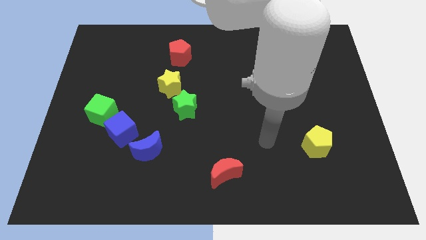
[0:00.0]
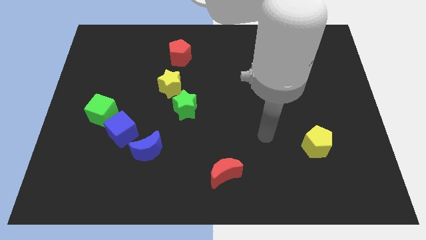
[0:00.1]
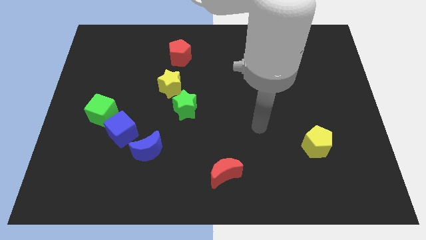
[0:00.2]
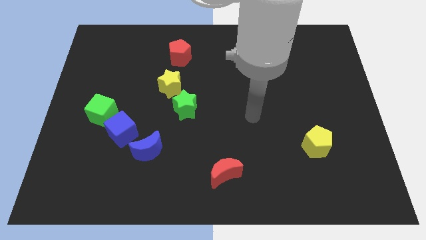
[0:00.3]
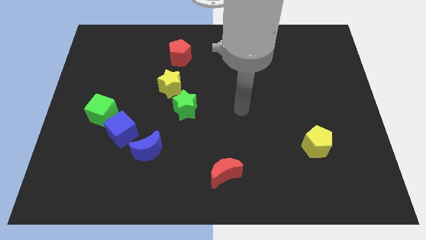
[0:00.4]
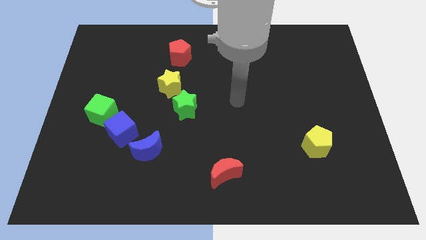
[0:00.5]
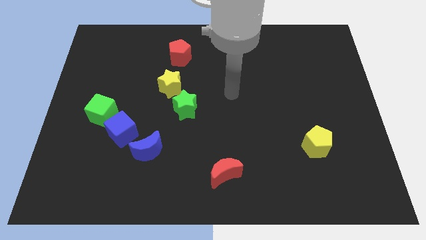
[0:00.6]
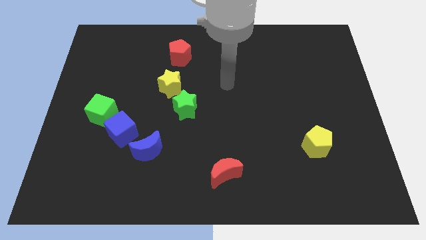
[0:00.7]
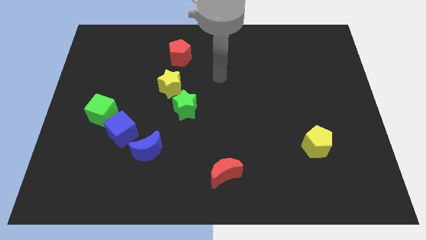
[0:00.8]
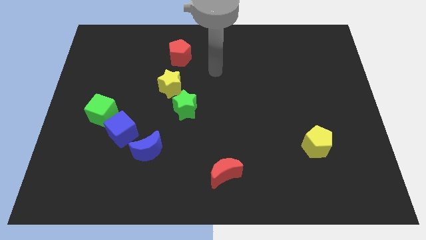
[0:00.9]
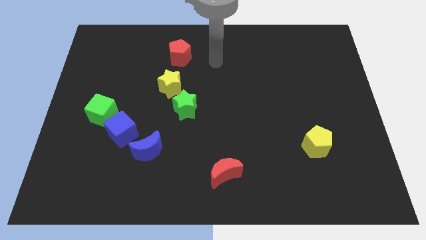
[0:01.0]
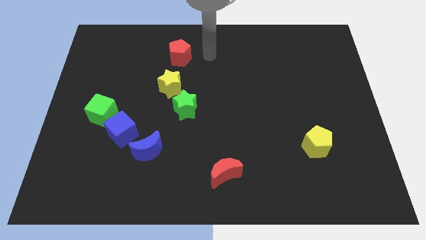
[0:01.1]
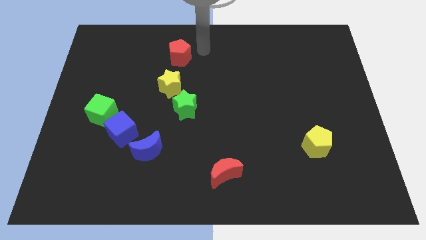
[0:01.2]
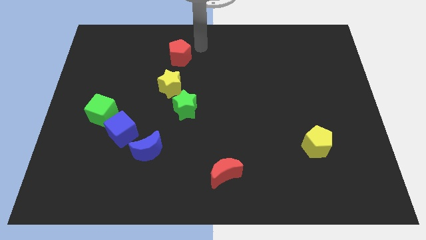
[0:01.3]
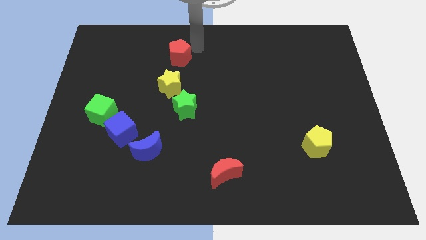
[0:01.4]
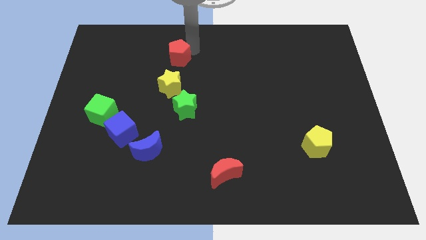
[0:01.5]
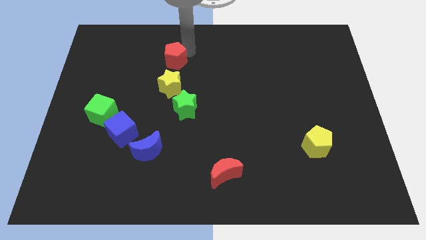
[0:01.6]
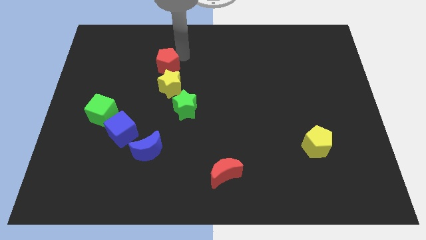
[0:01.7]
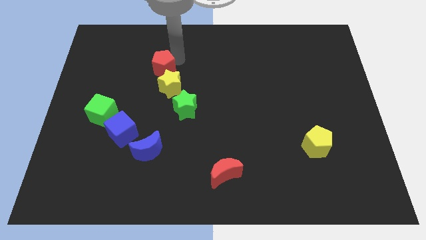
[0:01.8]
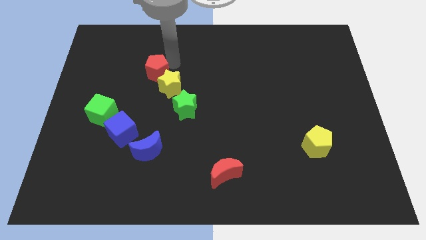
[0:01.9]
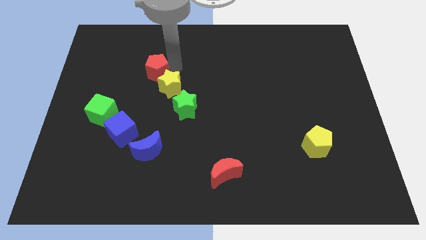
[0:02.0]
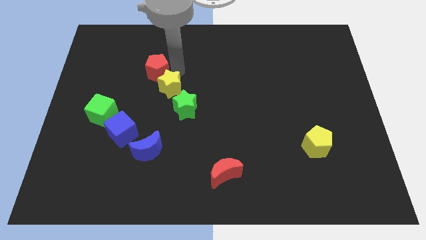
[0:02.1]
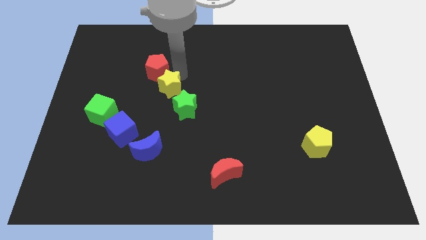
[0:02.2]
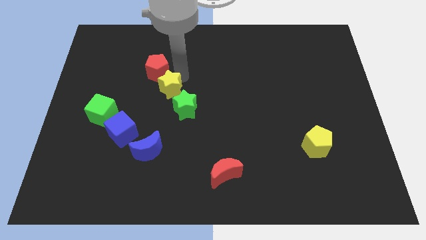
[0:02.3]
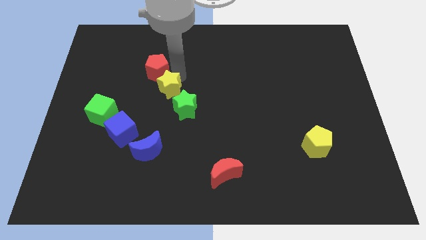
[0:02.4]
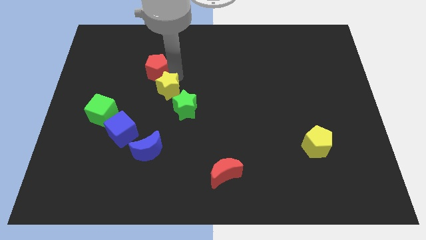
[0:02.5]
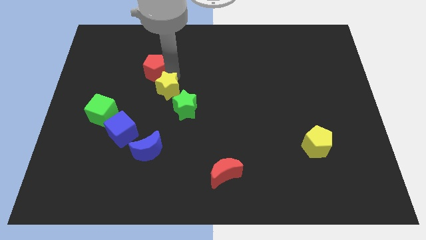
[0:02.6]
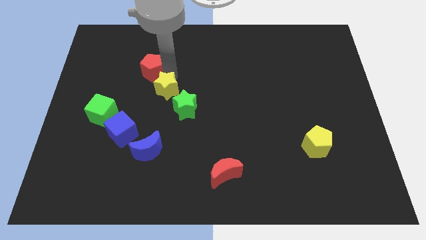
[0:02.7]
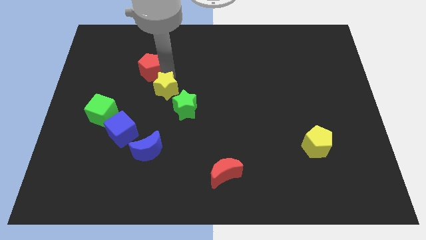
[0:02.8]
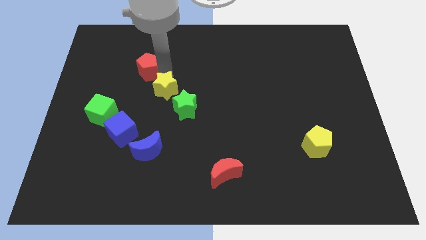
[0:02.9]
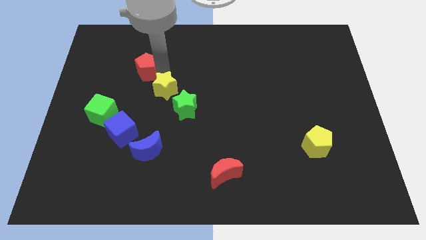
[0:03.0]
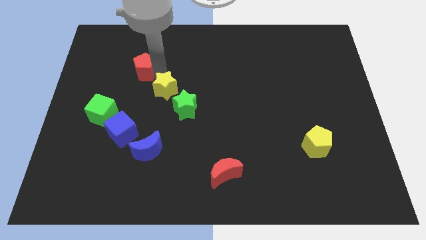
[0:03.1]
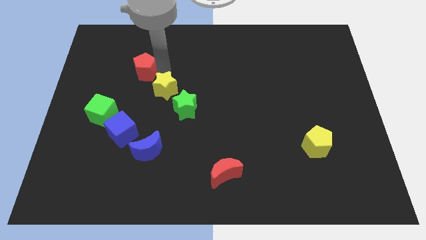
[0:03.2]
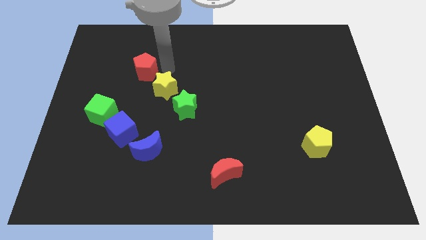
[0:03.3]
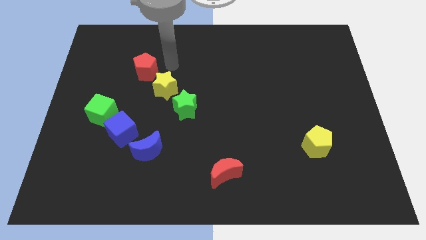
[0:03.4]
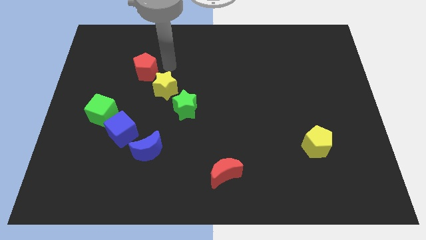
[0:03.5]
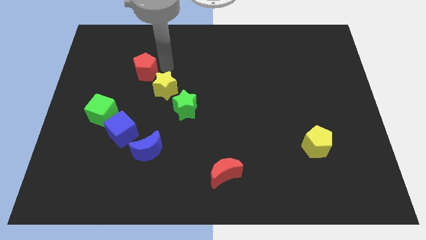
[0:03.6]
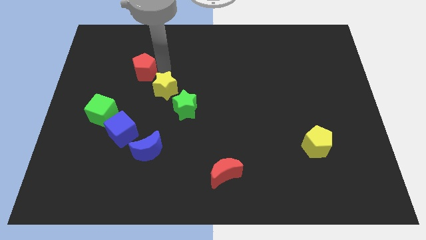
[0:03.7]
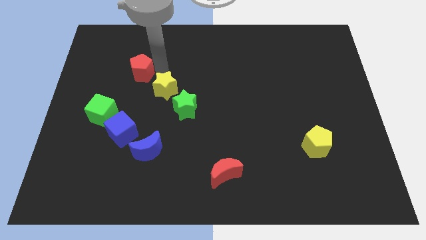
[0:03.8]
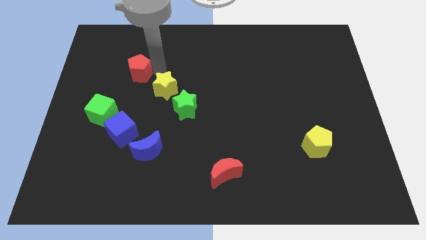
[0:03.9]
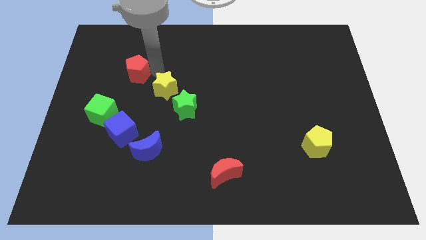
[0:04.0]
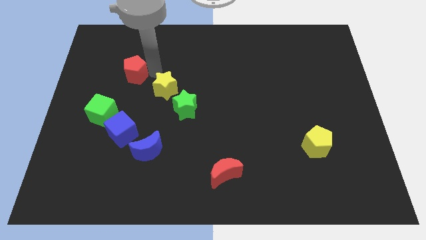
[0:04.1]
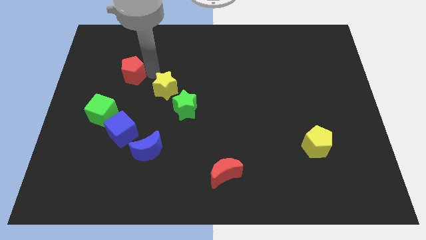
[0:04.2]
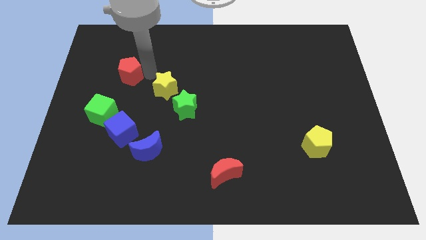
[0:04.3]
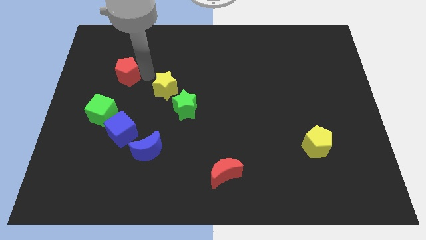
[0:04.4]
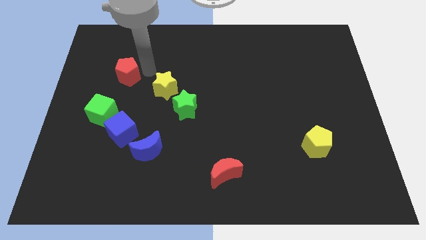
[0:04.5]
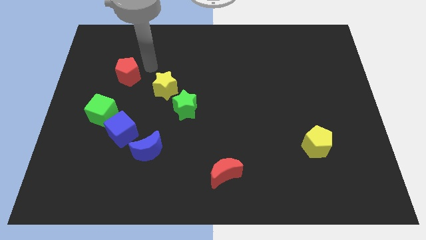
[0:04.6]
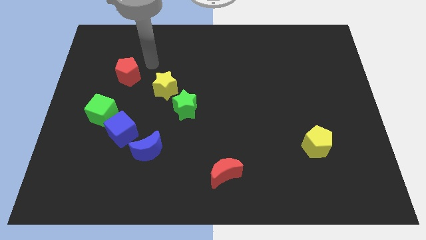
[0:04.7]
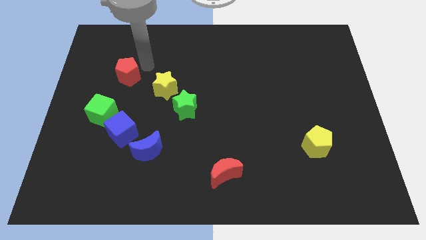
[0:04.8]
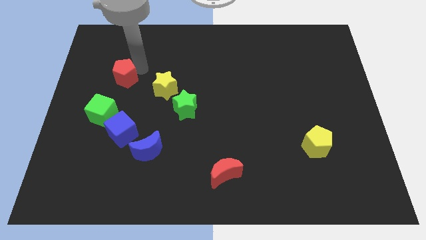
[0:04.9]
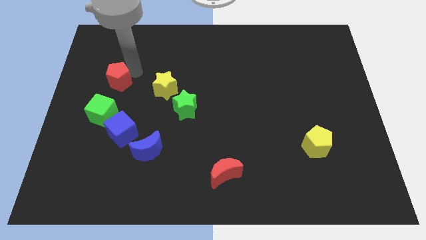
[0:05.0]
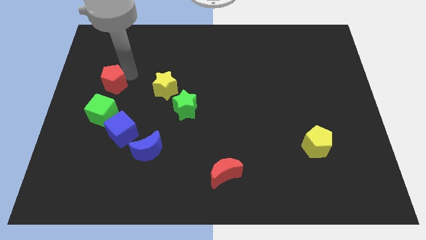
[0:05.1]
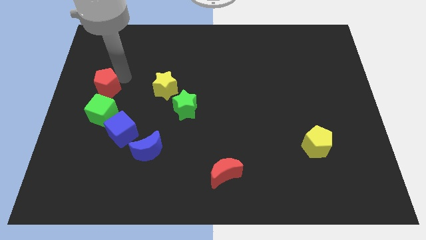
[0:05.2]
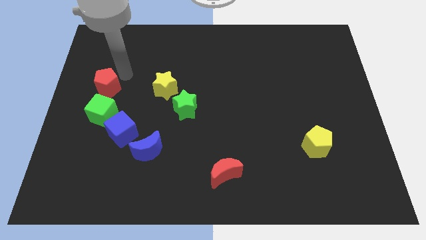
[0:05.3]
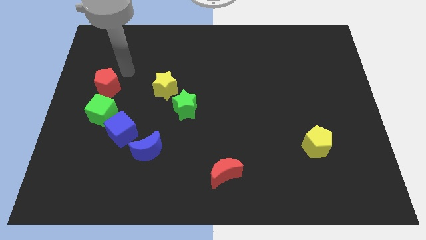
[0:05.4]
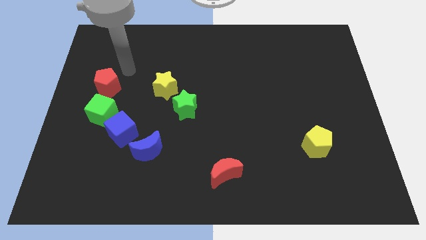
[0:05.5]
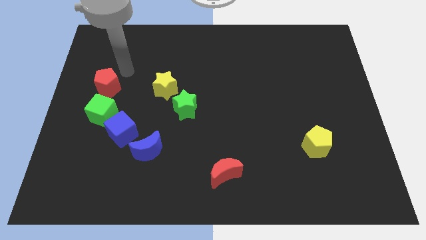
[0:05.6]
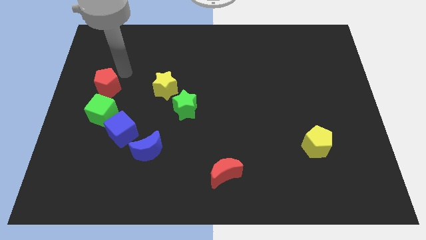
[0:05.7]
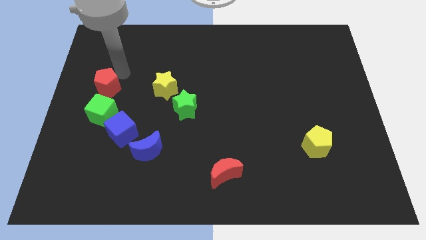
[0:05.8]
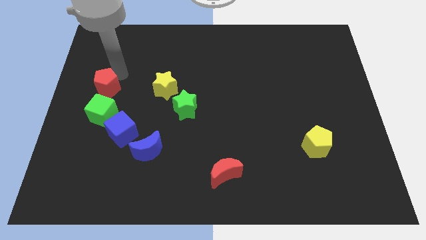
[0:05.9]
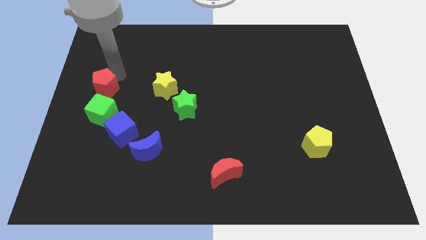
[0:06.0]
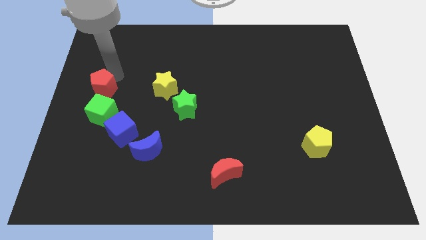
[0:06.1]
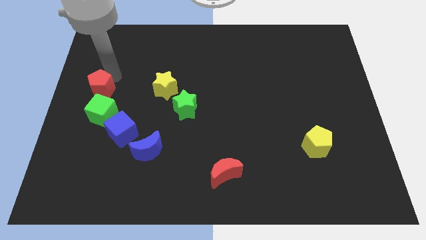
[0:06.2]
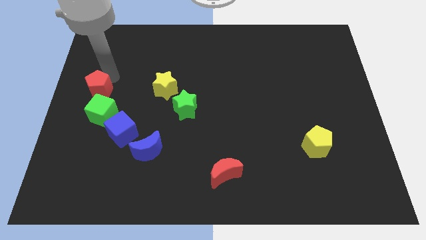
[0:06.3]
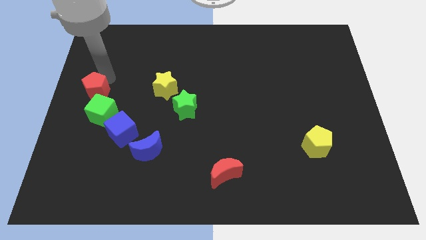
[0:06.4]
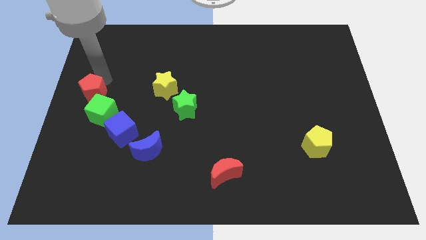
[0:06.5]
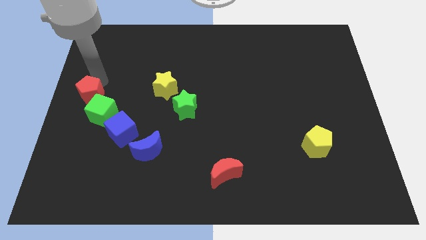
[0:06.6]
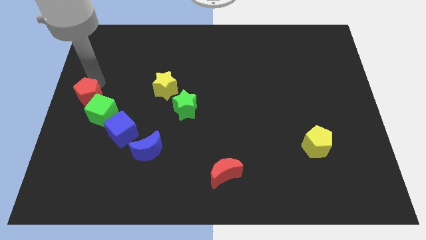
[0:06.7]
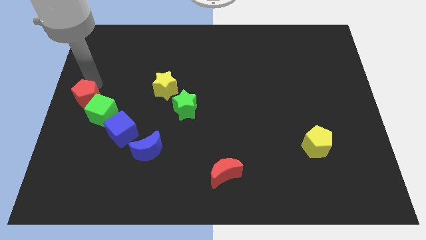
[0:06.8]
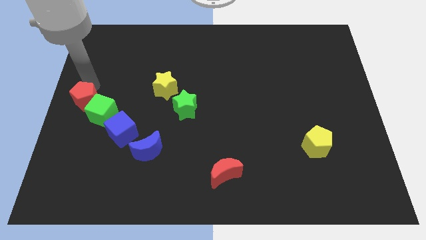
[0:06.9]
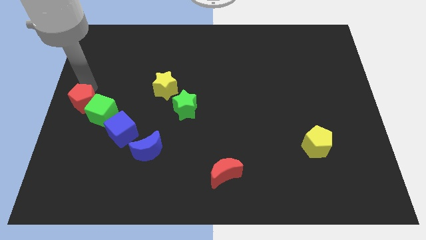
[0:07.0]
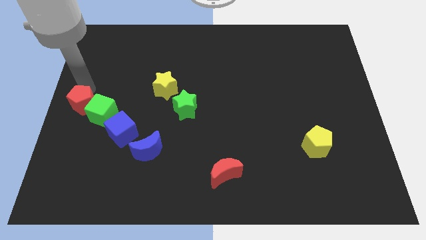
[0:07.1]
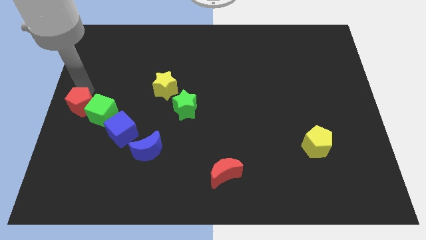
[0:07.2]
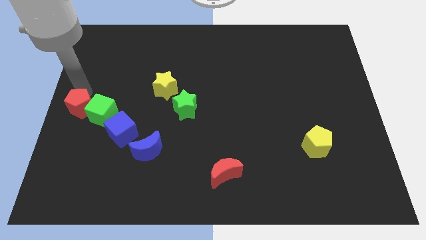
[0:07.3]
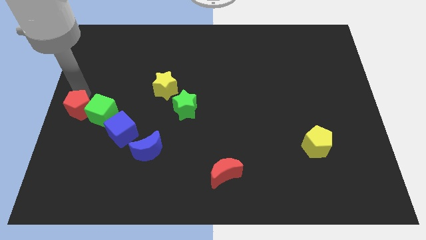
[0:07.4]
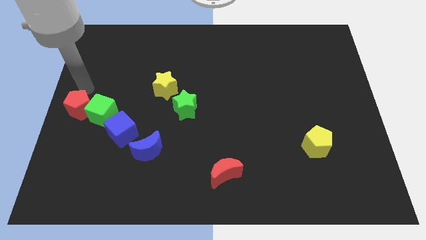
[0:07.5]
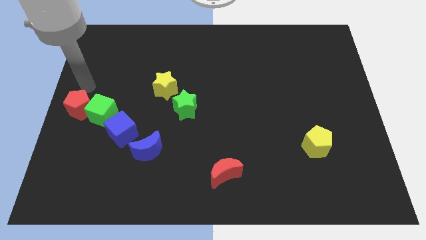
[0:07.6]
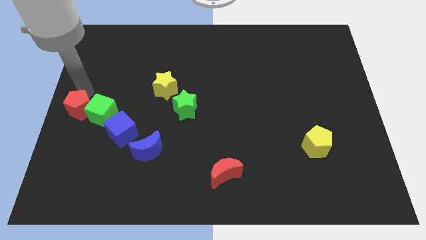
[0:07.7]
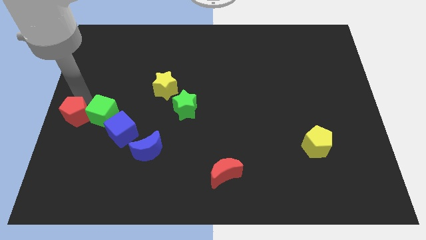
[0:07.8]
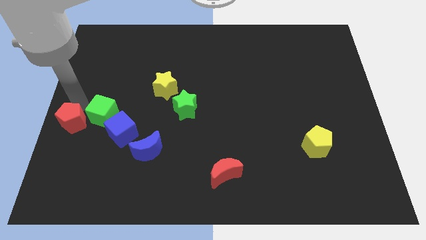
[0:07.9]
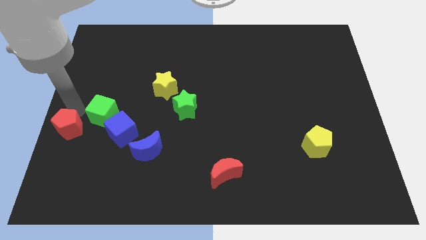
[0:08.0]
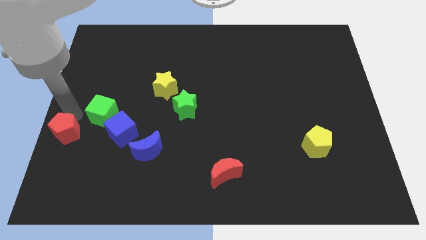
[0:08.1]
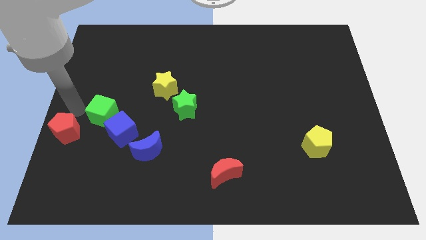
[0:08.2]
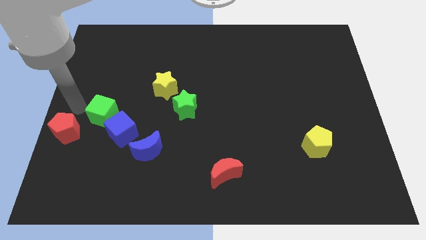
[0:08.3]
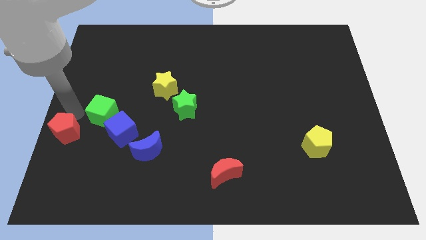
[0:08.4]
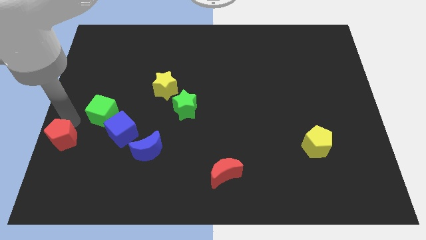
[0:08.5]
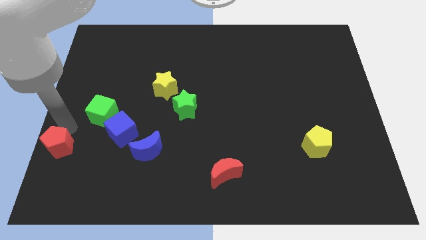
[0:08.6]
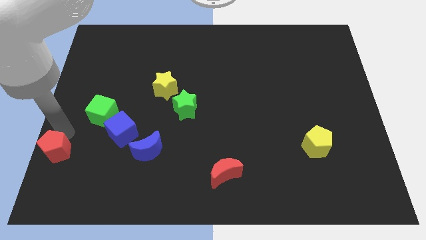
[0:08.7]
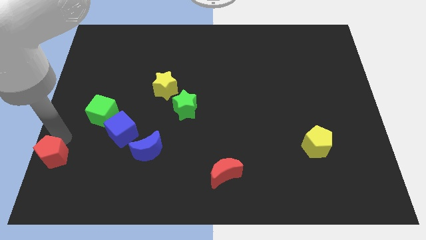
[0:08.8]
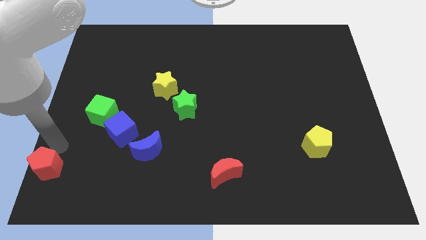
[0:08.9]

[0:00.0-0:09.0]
slide the red pentagon to the bottom left of the board
